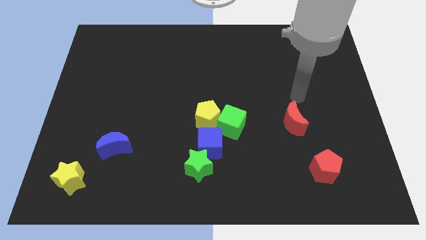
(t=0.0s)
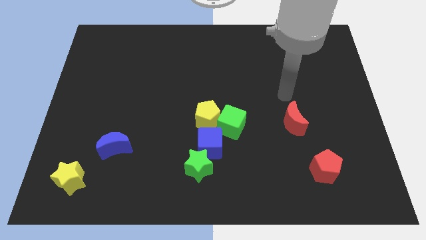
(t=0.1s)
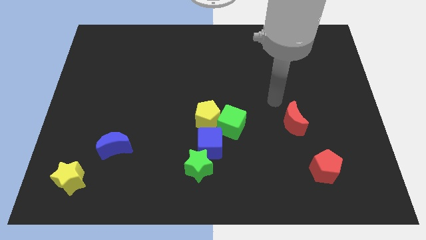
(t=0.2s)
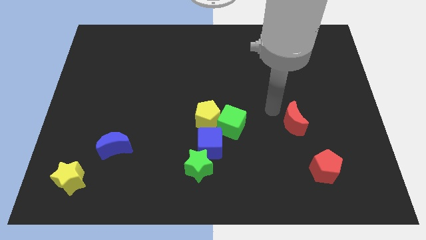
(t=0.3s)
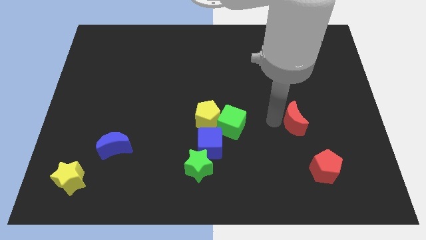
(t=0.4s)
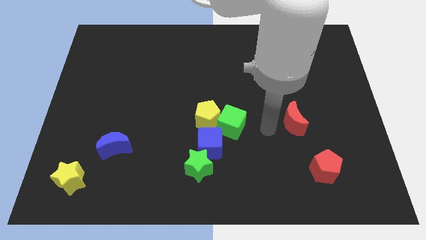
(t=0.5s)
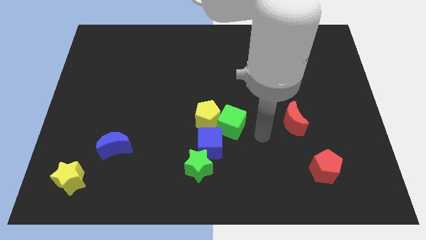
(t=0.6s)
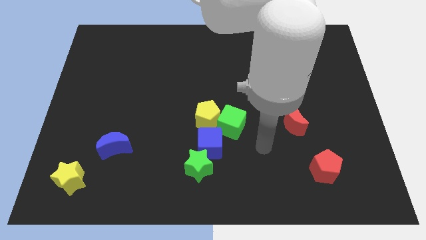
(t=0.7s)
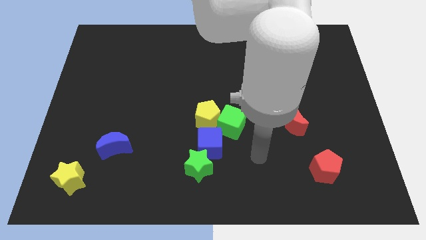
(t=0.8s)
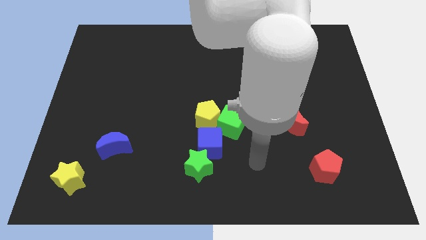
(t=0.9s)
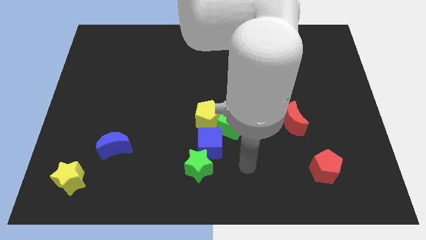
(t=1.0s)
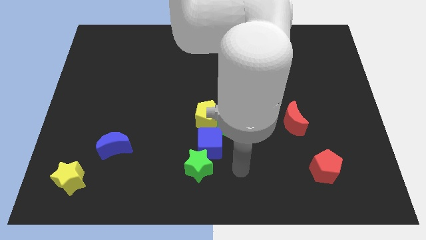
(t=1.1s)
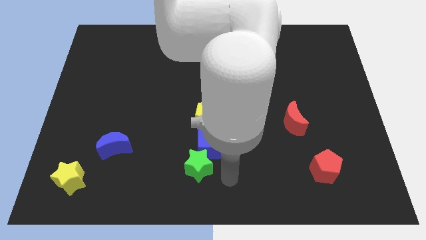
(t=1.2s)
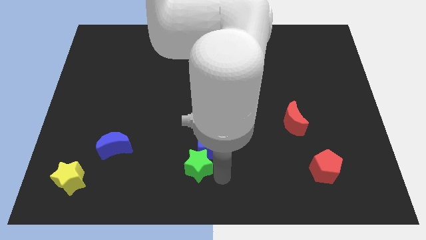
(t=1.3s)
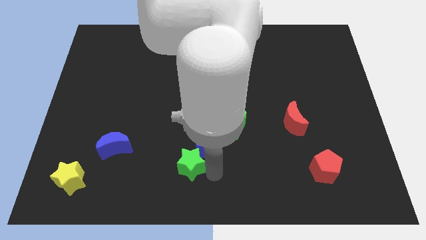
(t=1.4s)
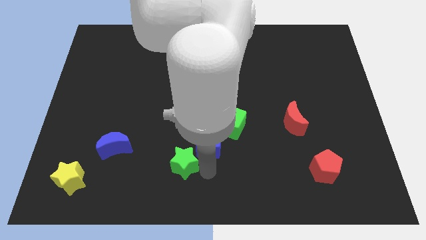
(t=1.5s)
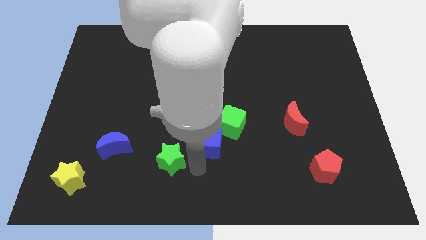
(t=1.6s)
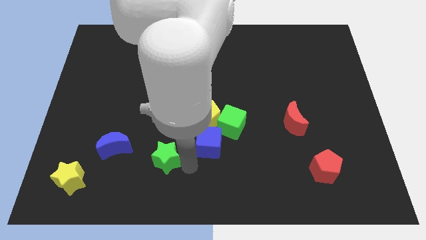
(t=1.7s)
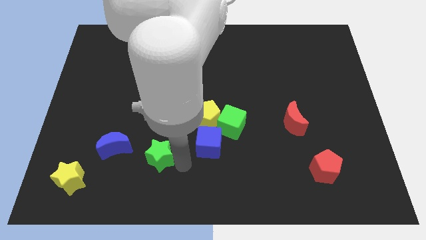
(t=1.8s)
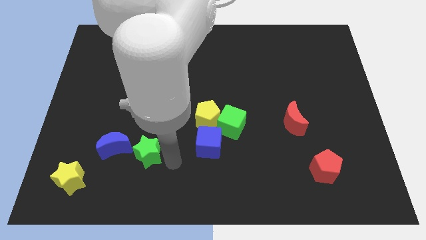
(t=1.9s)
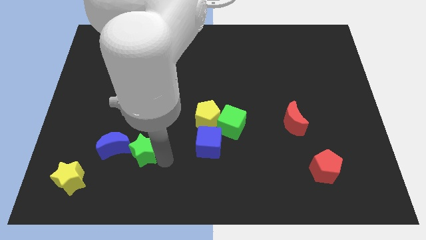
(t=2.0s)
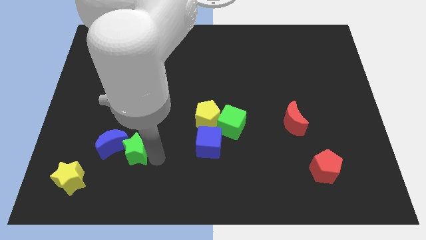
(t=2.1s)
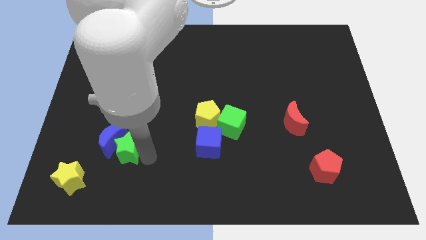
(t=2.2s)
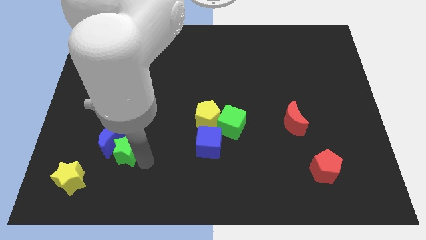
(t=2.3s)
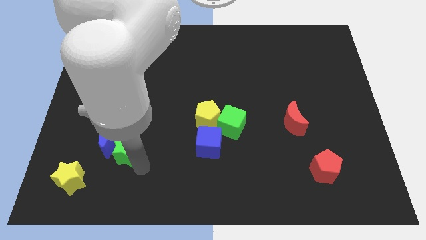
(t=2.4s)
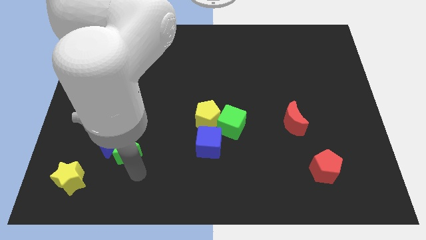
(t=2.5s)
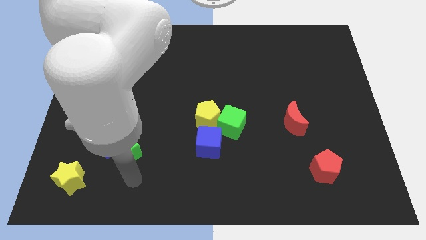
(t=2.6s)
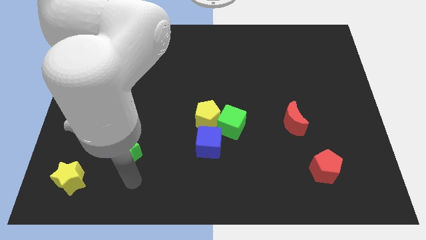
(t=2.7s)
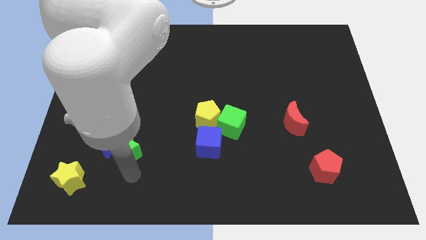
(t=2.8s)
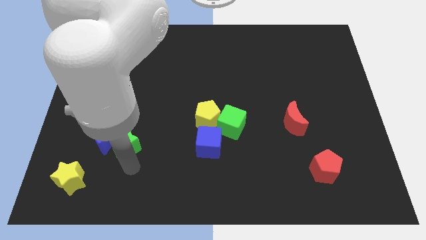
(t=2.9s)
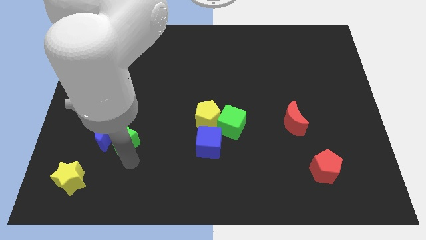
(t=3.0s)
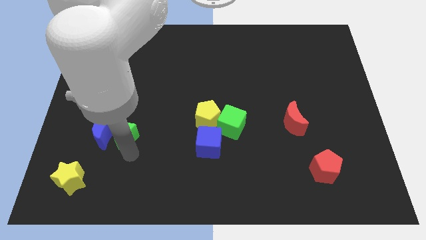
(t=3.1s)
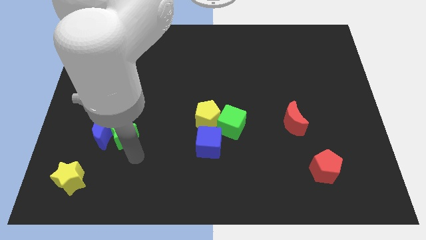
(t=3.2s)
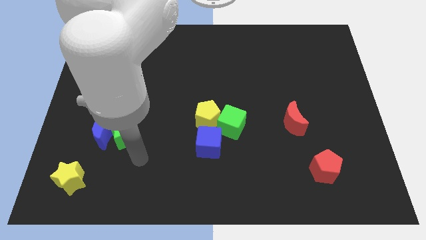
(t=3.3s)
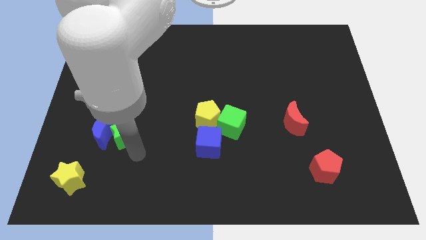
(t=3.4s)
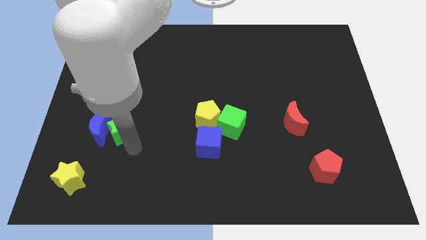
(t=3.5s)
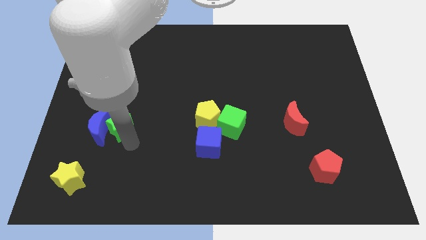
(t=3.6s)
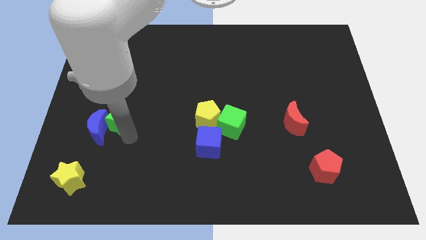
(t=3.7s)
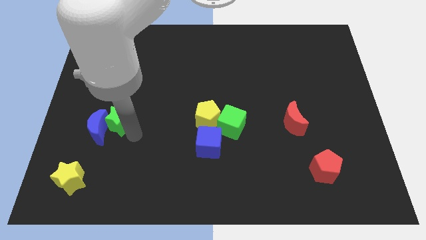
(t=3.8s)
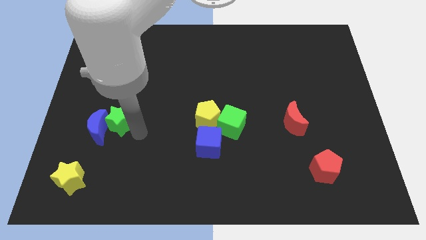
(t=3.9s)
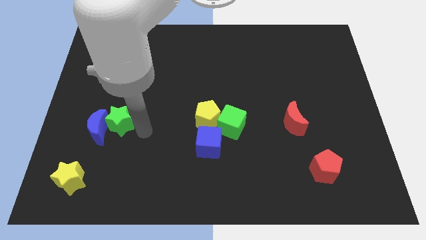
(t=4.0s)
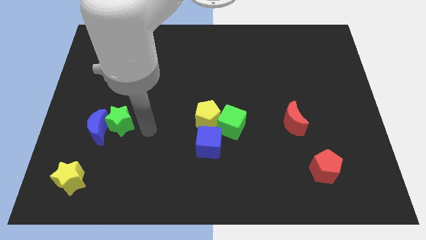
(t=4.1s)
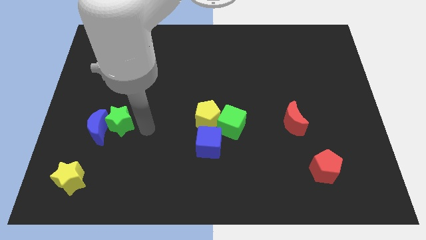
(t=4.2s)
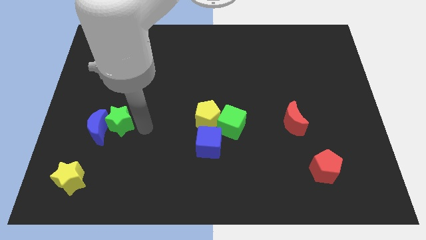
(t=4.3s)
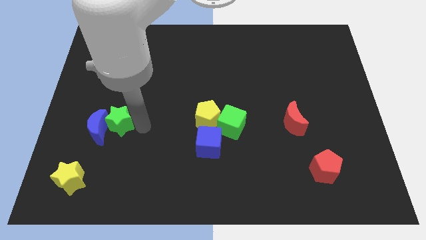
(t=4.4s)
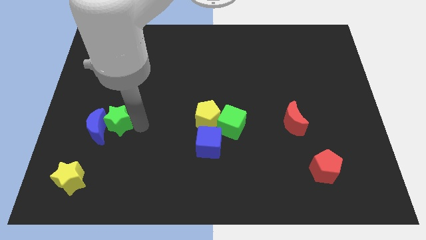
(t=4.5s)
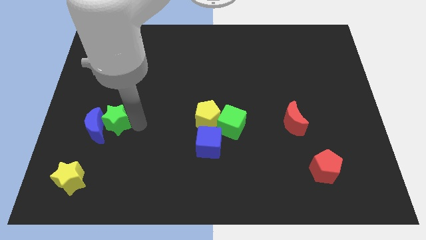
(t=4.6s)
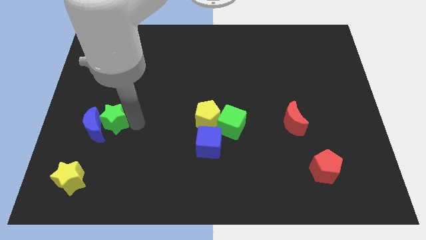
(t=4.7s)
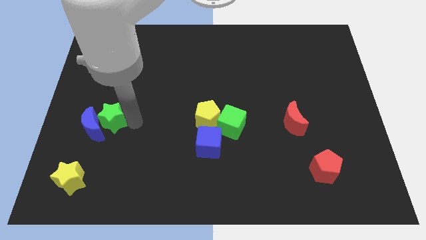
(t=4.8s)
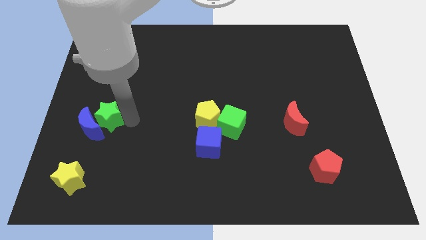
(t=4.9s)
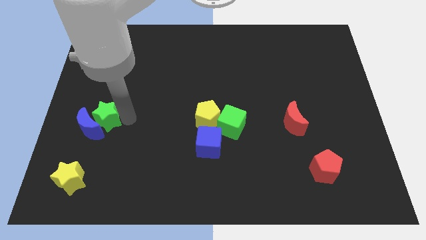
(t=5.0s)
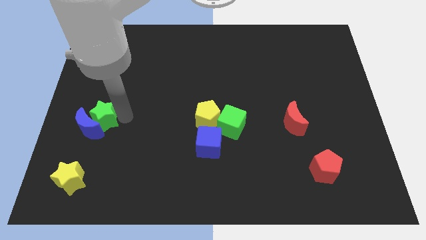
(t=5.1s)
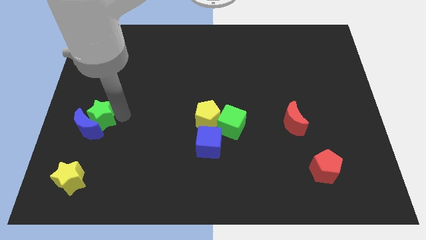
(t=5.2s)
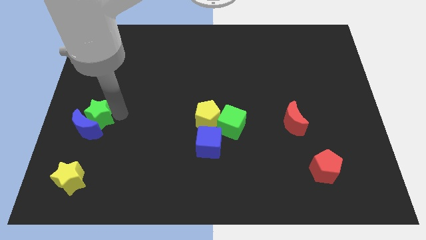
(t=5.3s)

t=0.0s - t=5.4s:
move the green star to the center left

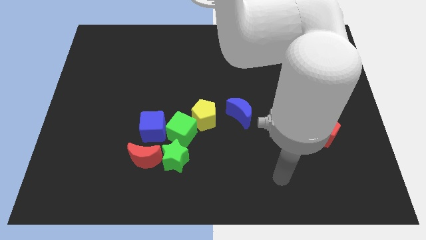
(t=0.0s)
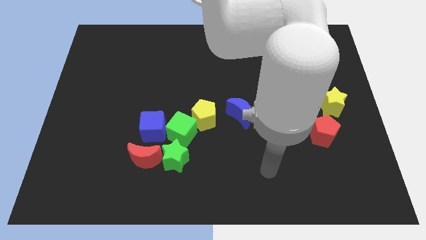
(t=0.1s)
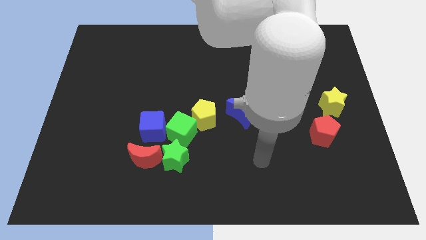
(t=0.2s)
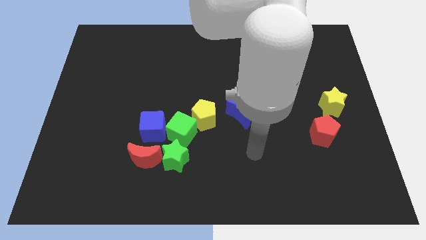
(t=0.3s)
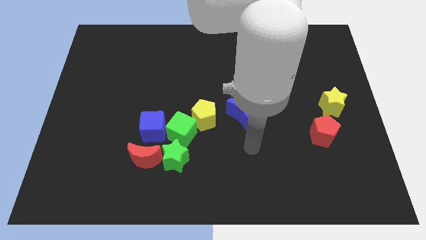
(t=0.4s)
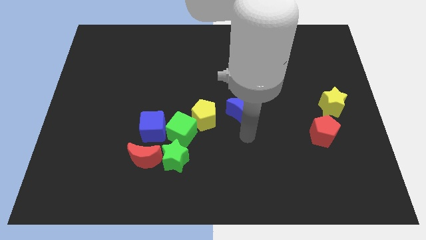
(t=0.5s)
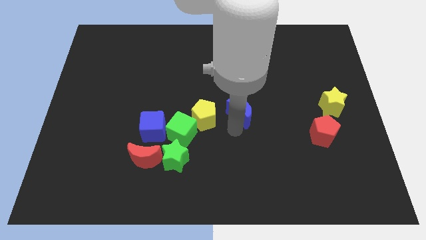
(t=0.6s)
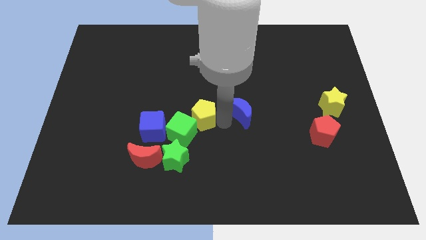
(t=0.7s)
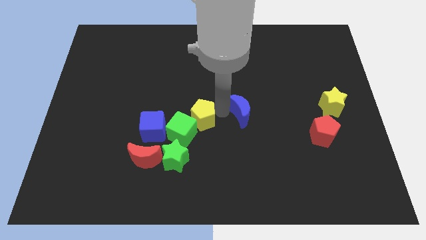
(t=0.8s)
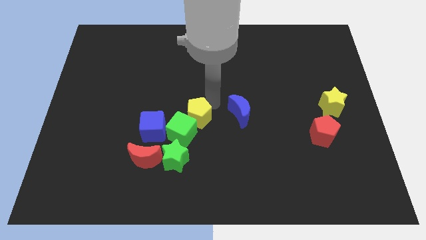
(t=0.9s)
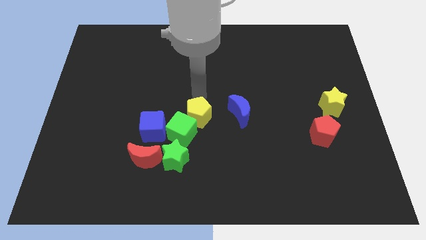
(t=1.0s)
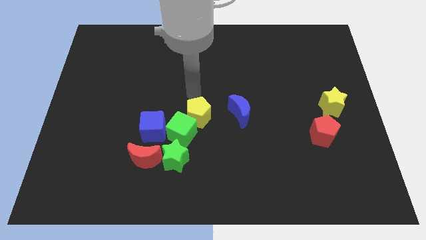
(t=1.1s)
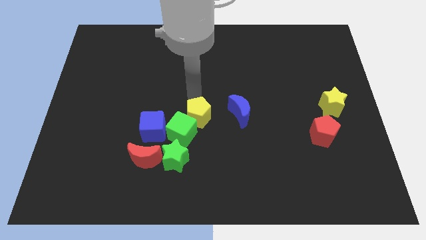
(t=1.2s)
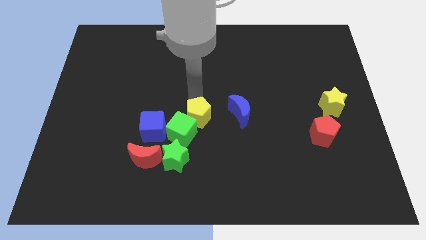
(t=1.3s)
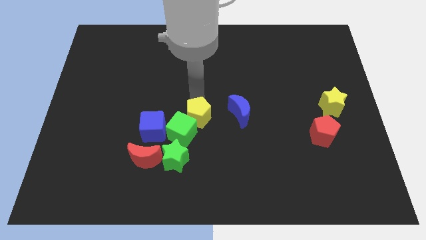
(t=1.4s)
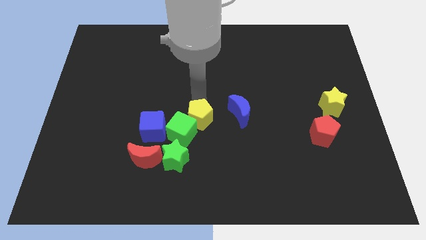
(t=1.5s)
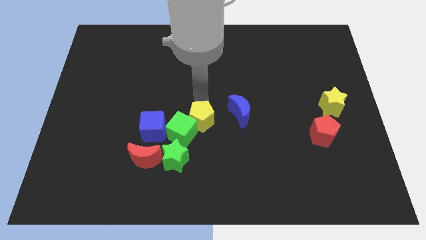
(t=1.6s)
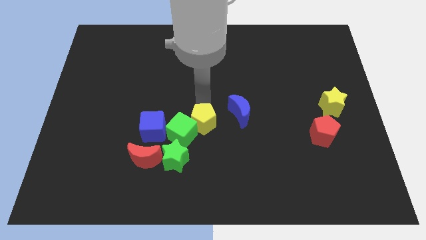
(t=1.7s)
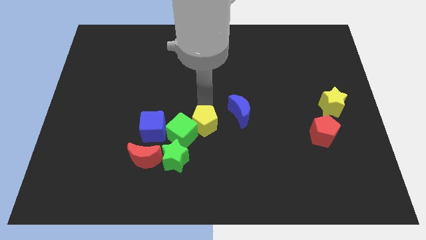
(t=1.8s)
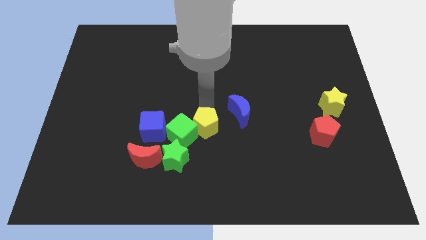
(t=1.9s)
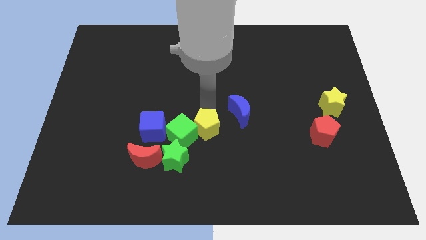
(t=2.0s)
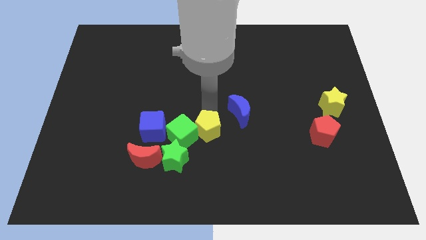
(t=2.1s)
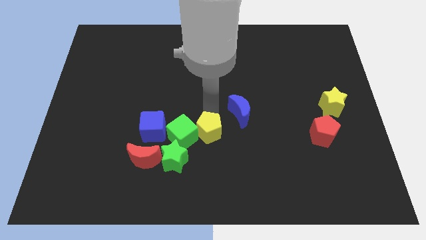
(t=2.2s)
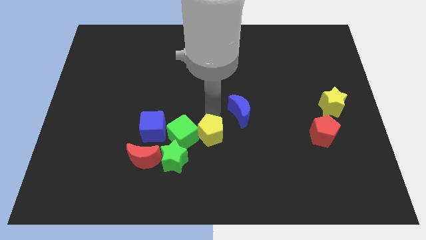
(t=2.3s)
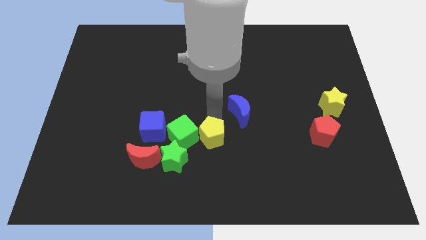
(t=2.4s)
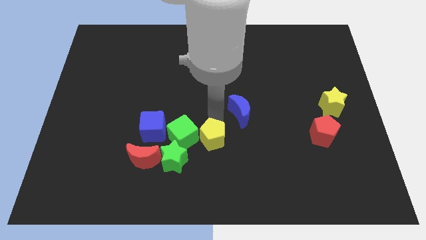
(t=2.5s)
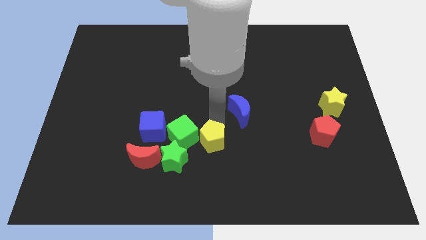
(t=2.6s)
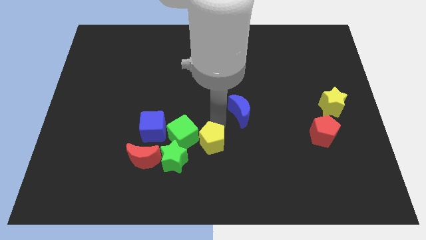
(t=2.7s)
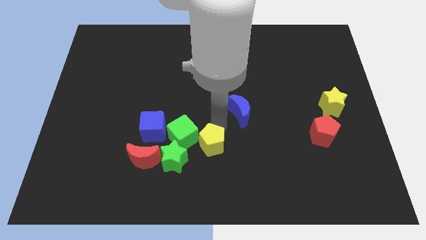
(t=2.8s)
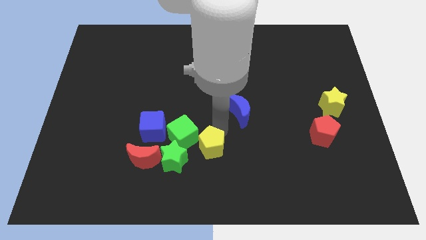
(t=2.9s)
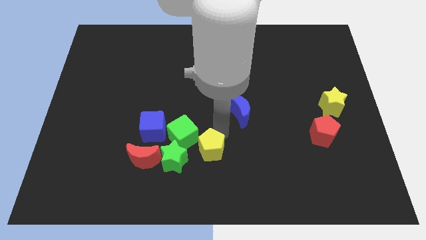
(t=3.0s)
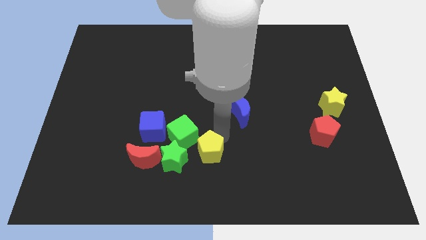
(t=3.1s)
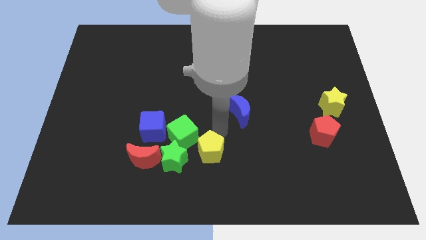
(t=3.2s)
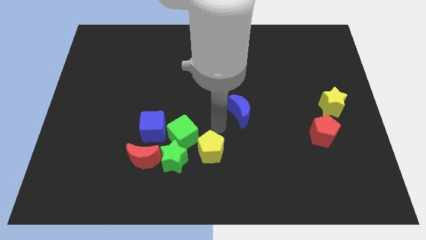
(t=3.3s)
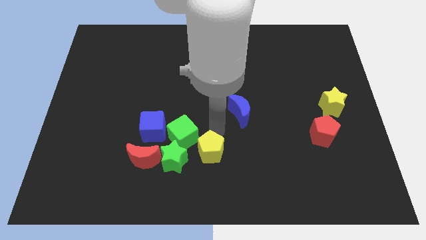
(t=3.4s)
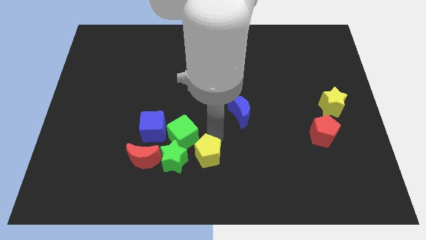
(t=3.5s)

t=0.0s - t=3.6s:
move the yellow pentagon to the bottom
